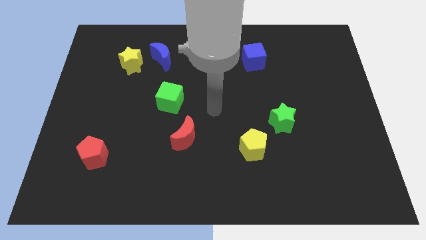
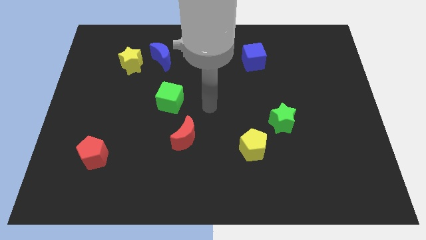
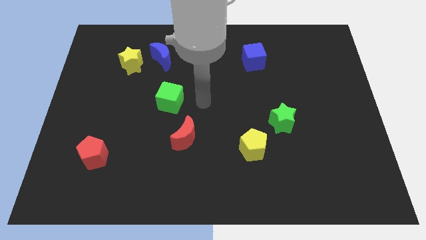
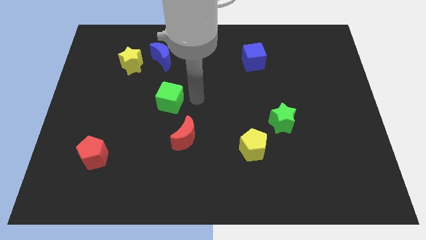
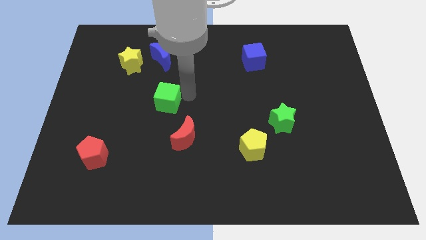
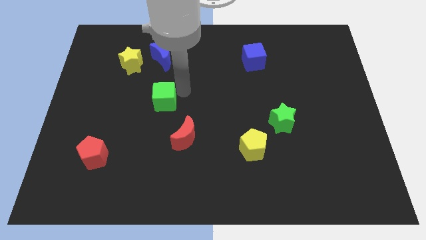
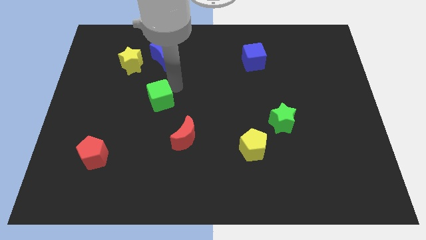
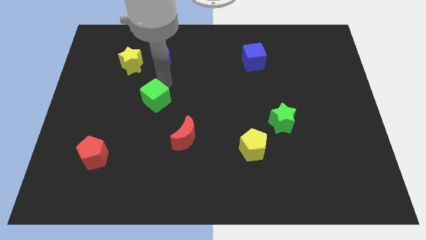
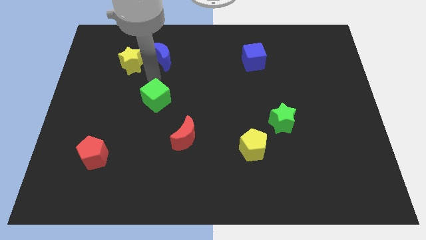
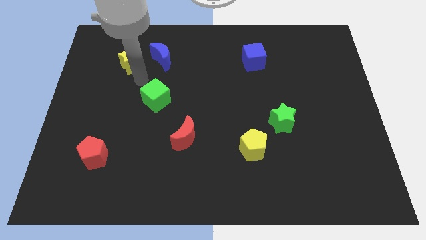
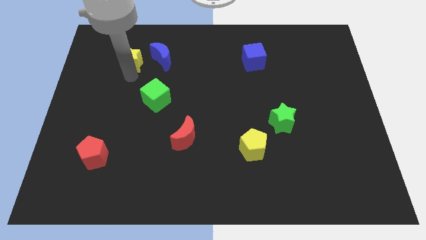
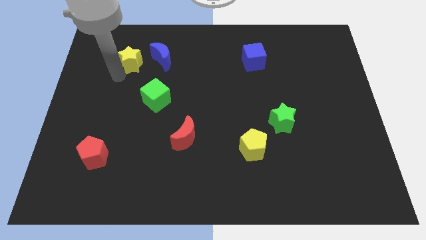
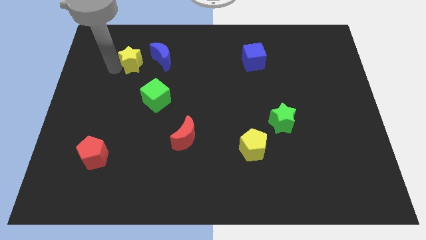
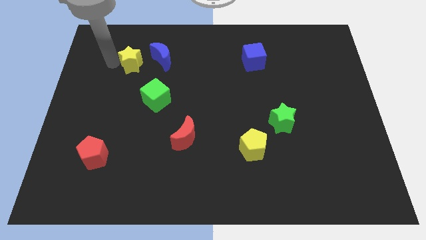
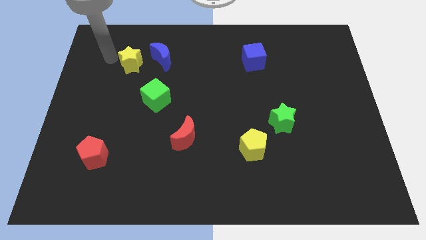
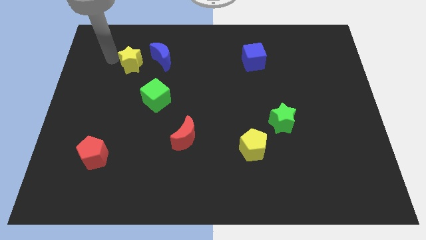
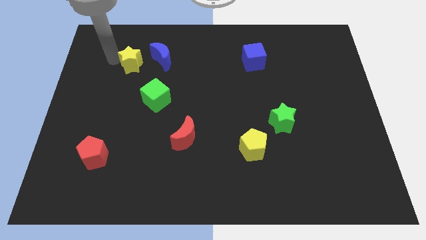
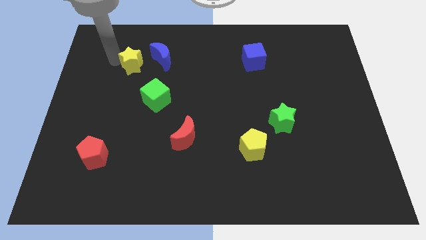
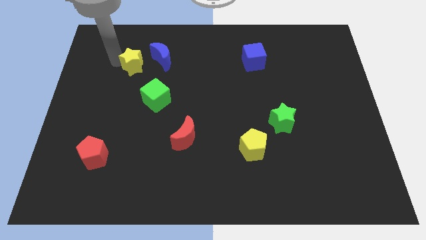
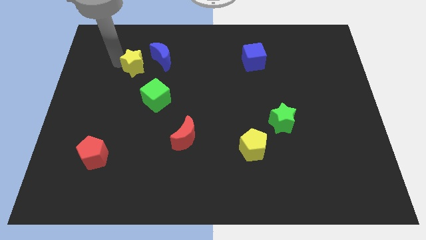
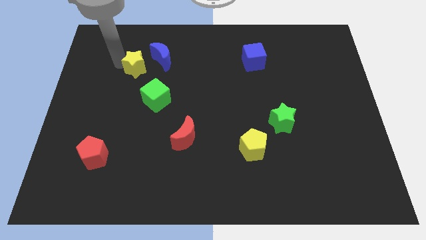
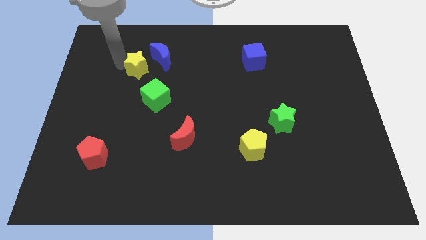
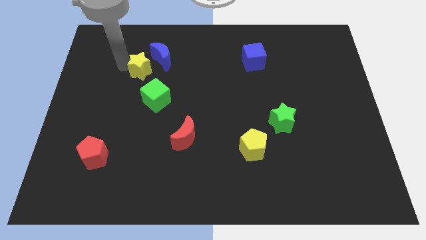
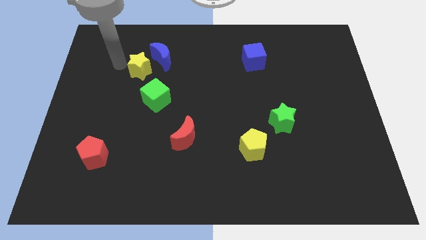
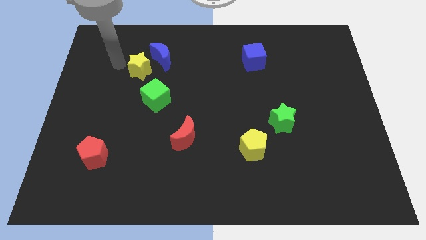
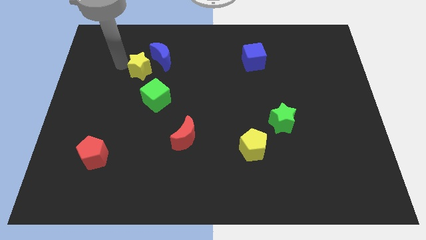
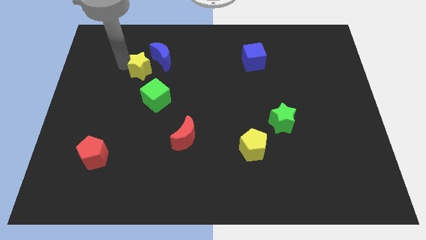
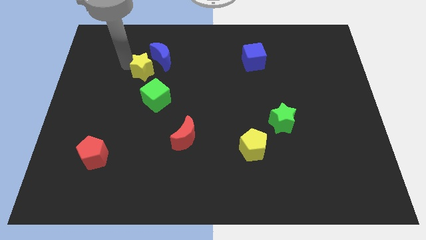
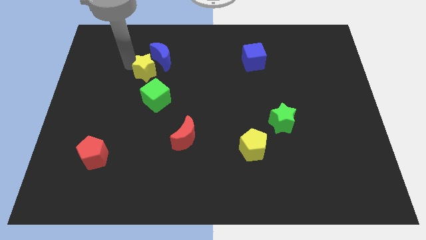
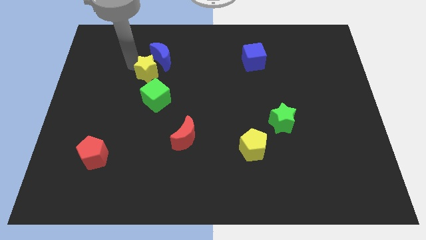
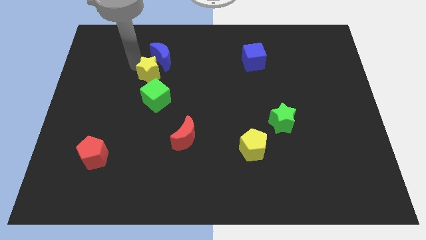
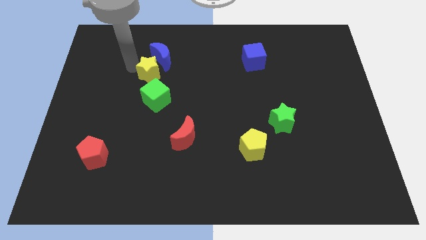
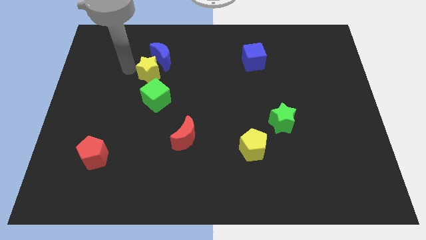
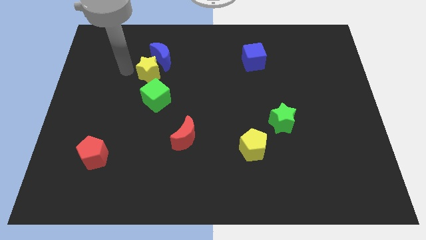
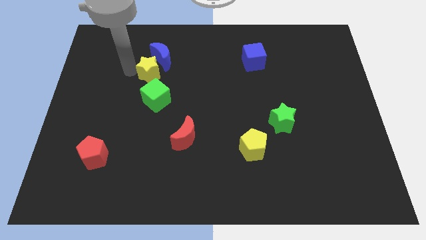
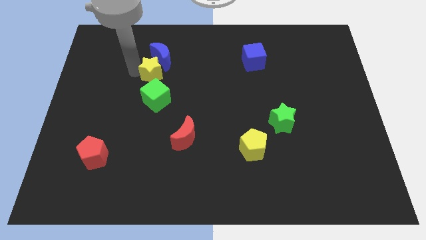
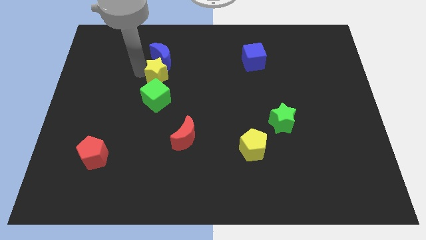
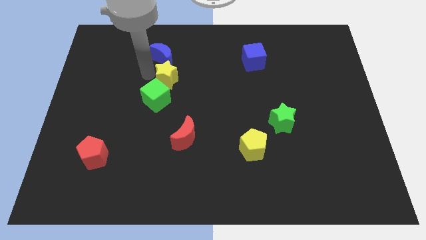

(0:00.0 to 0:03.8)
slightly push the yellow star to the right

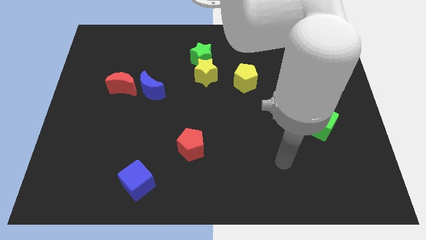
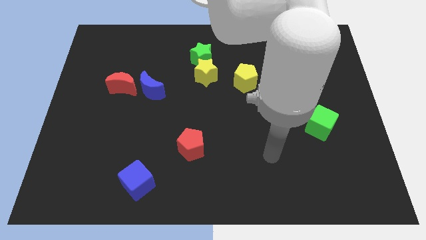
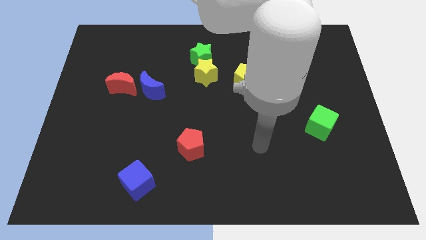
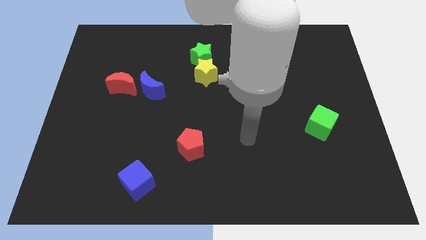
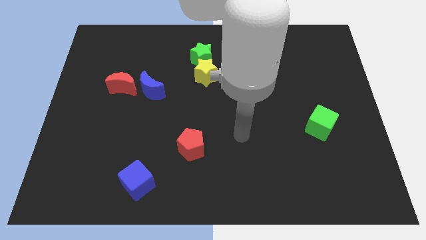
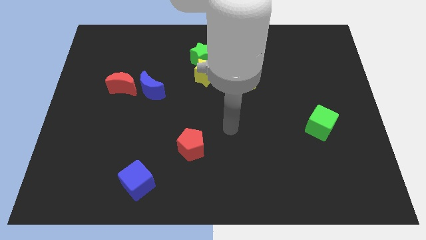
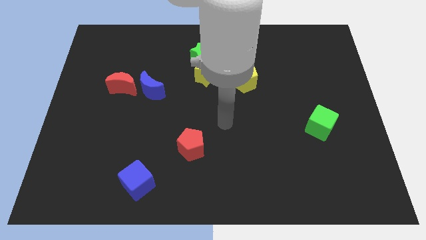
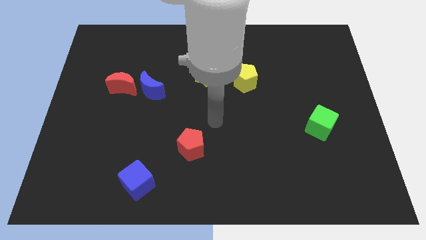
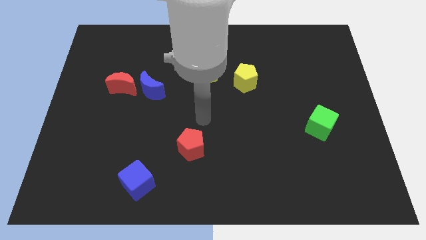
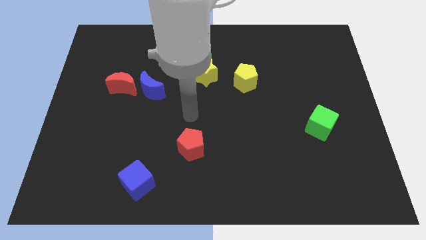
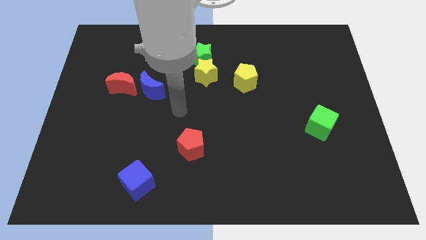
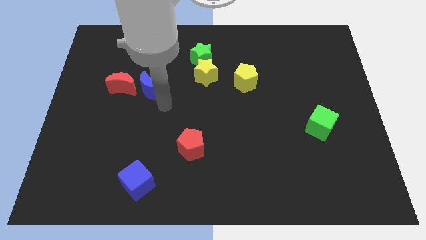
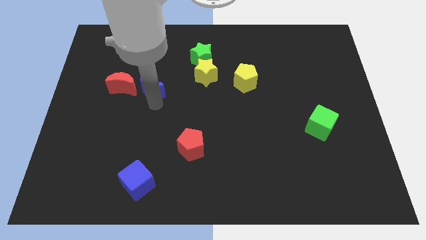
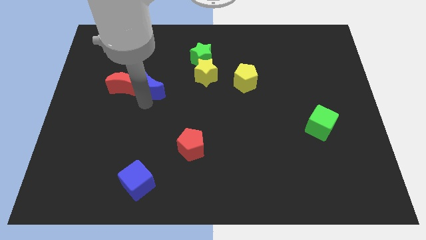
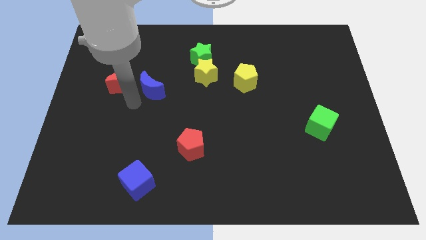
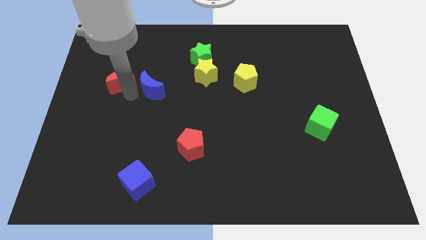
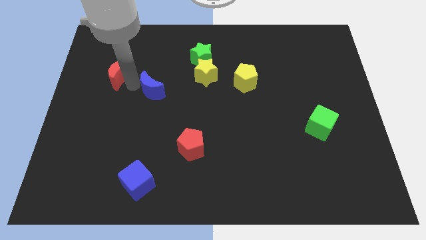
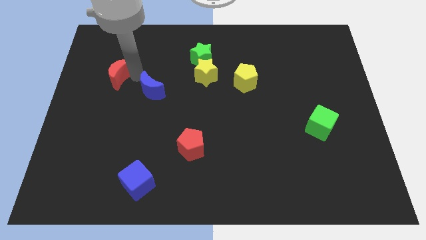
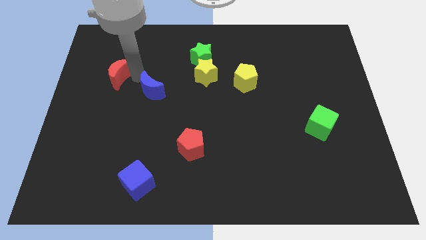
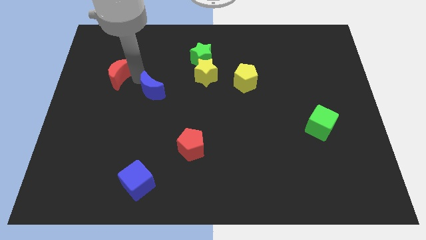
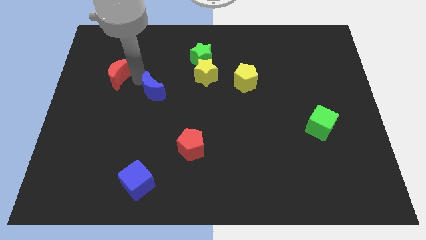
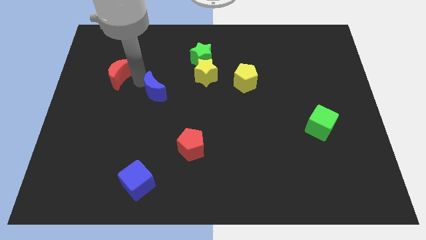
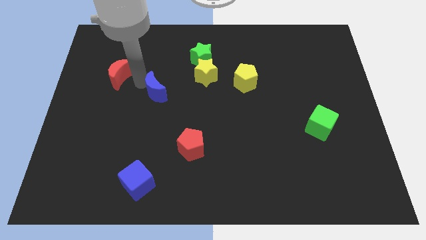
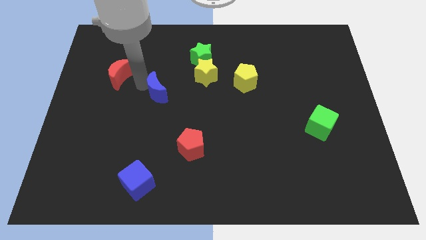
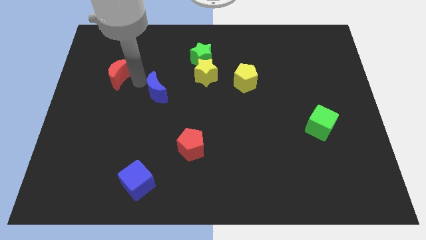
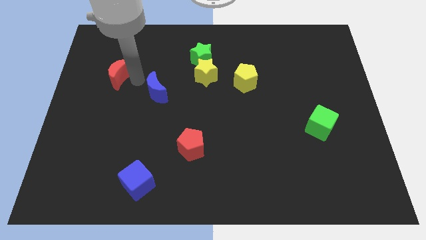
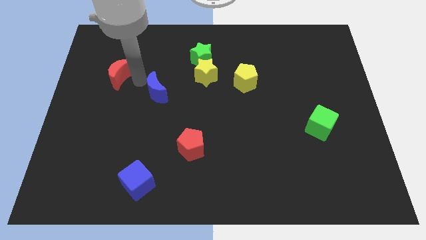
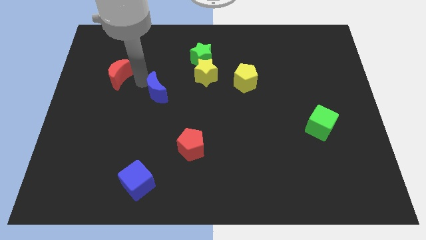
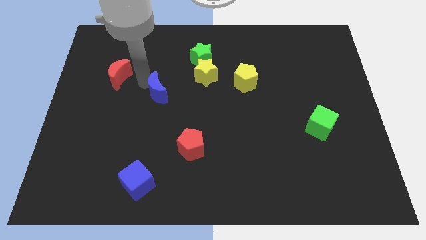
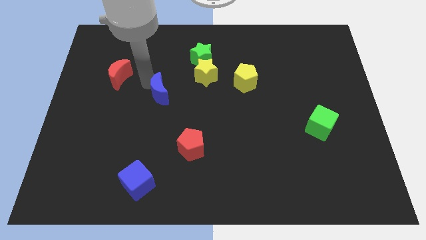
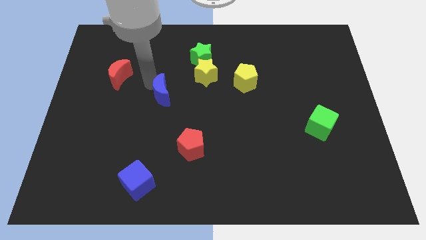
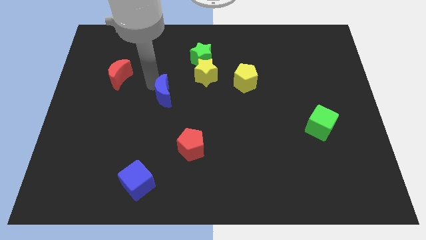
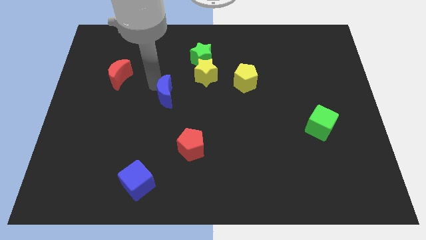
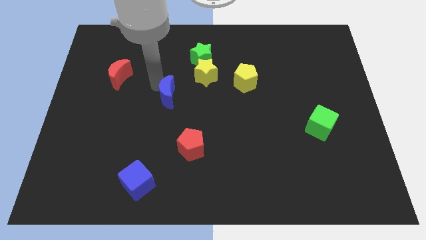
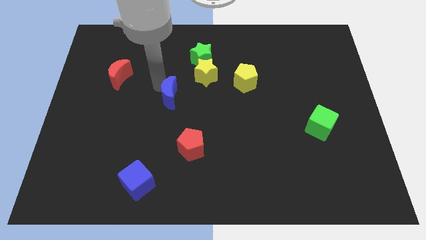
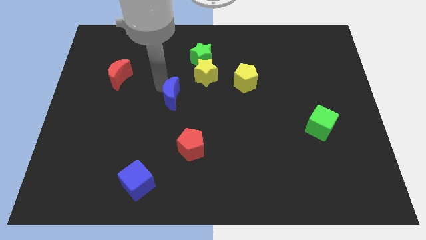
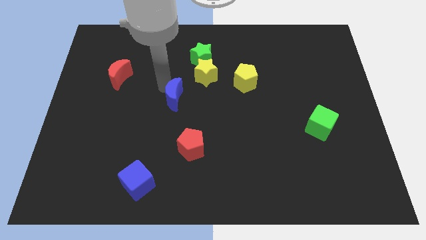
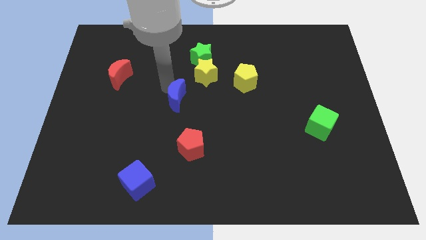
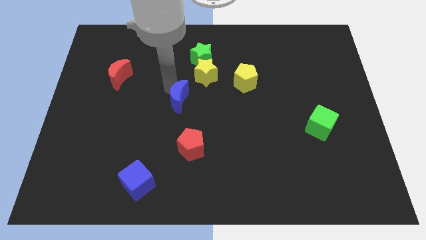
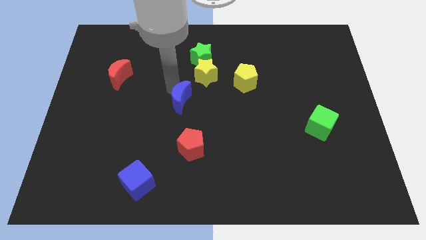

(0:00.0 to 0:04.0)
slightly push the blue moon down and right diagonally

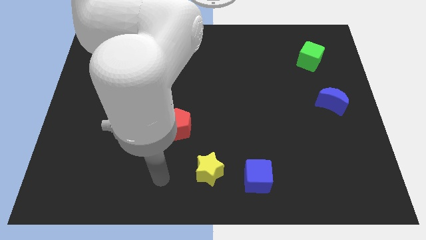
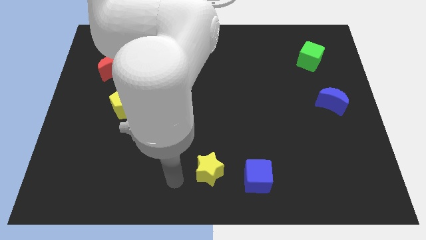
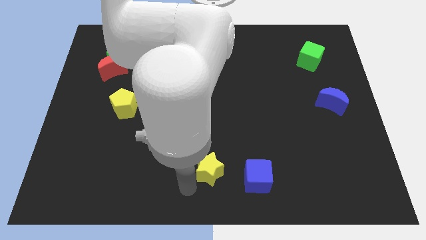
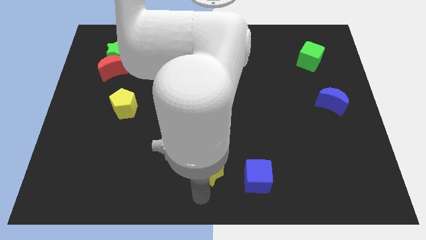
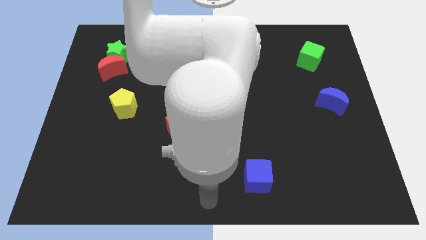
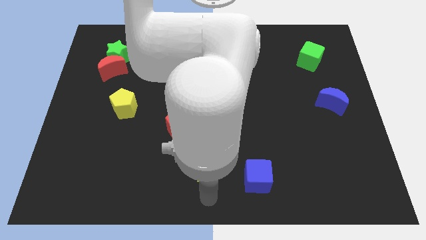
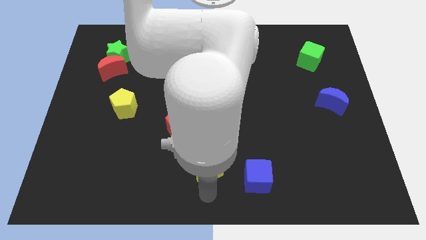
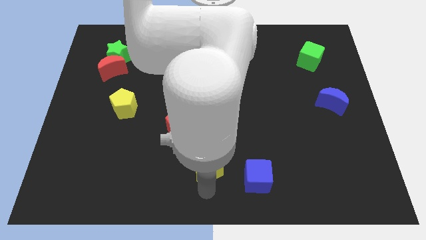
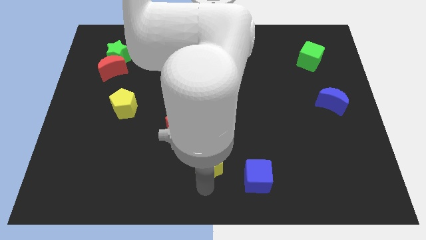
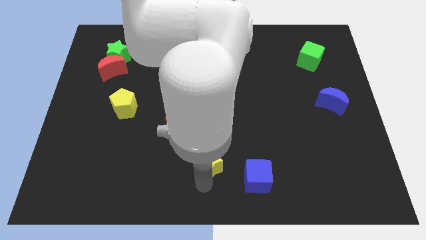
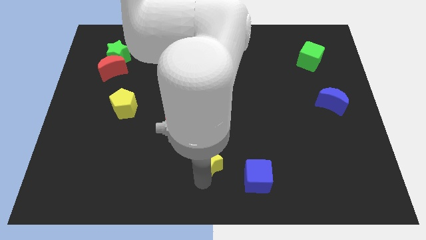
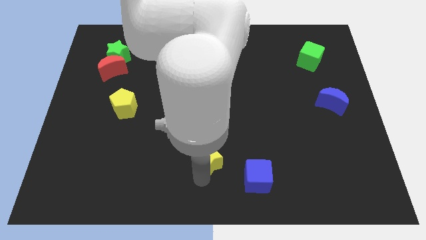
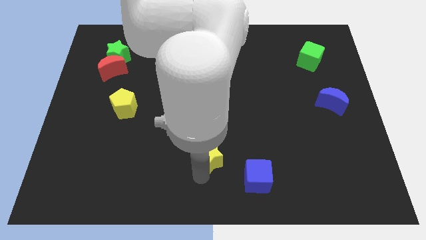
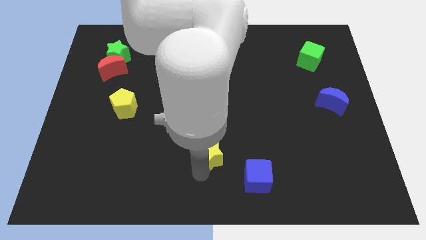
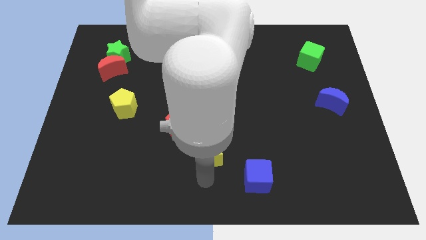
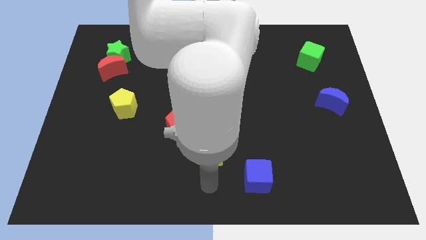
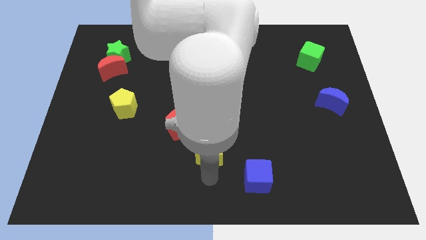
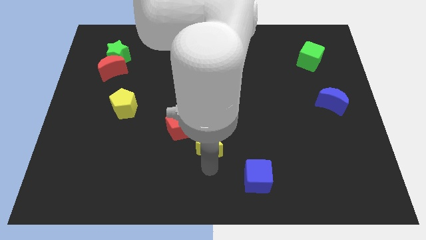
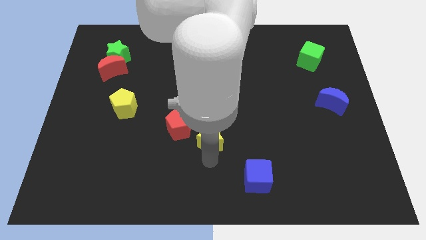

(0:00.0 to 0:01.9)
slightly move the yellow star up
